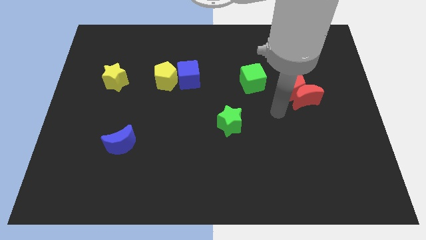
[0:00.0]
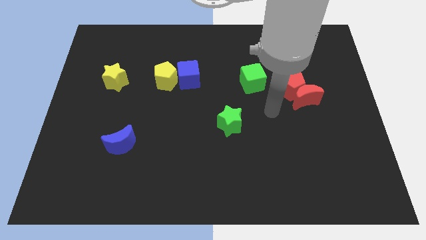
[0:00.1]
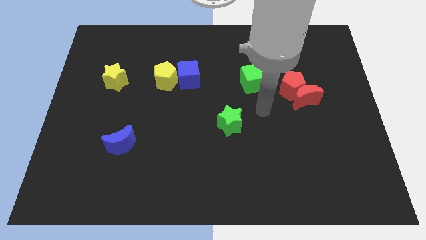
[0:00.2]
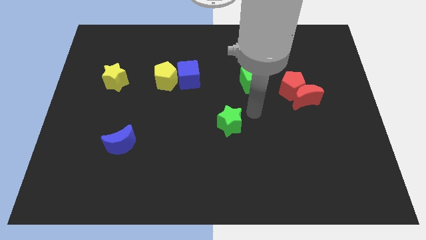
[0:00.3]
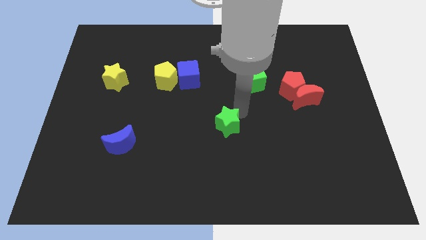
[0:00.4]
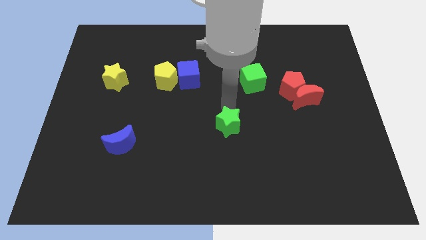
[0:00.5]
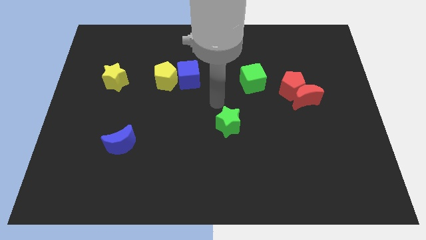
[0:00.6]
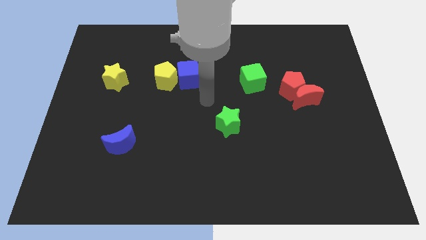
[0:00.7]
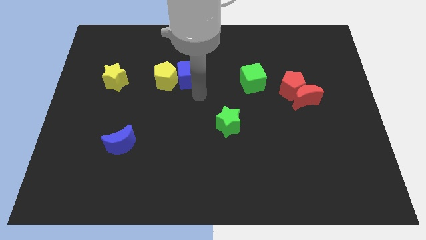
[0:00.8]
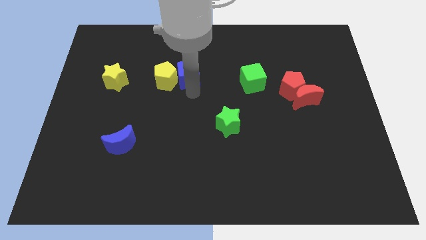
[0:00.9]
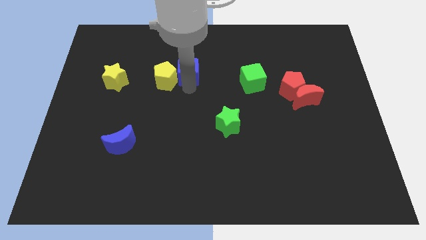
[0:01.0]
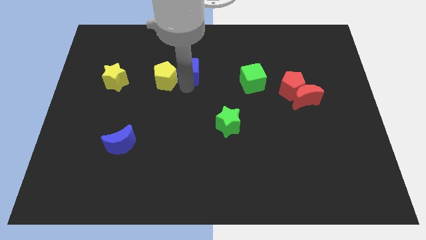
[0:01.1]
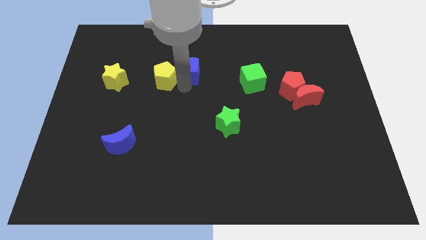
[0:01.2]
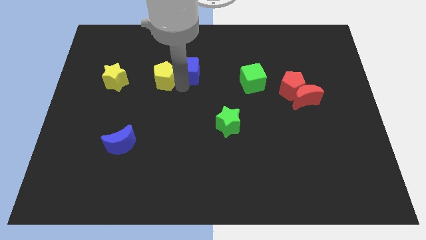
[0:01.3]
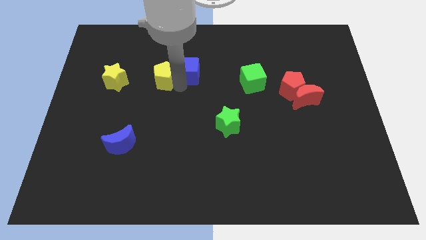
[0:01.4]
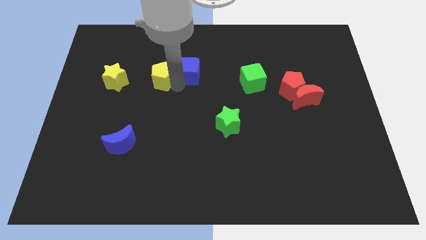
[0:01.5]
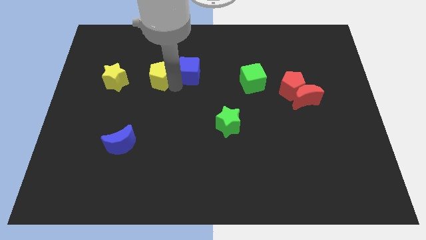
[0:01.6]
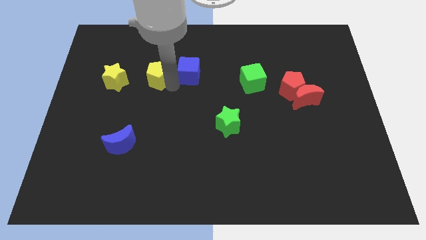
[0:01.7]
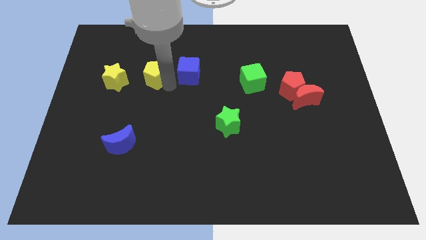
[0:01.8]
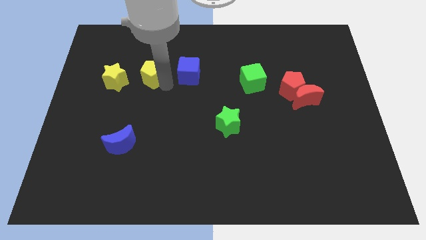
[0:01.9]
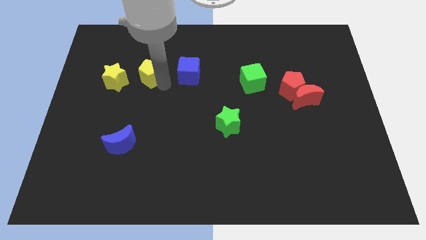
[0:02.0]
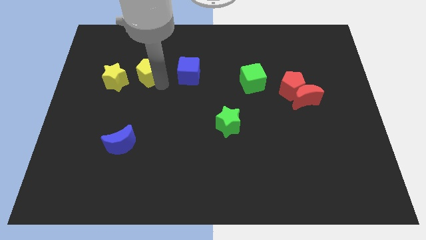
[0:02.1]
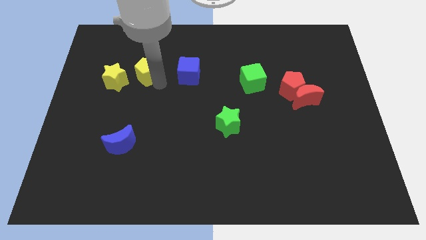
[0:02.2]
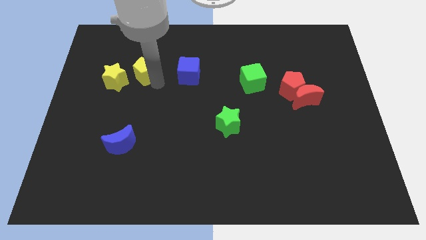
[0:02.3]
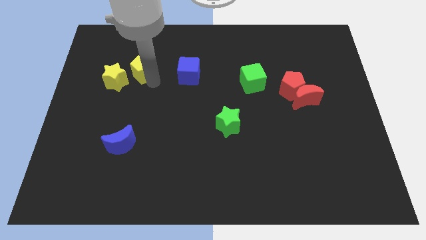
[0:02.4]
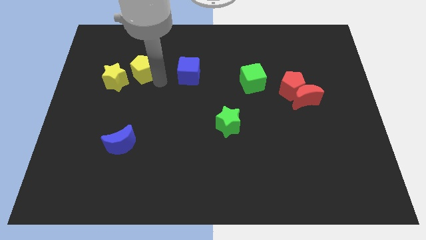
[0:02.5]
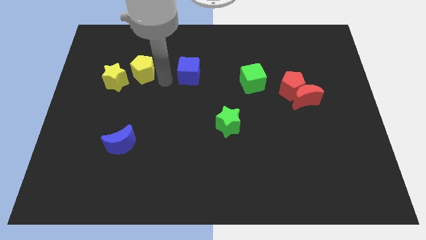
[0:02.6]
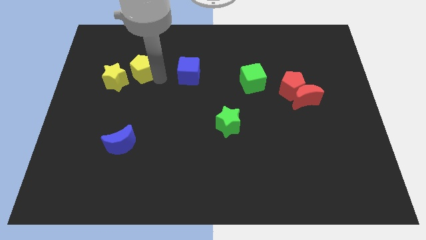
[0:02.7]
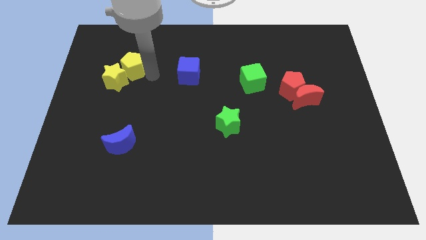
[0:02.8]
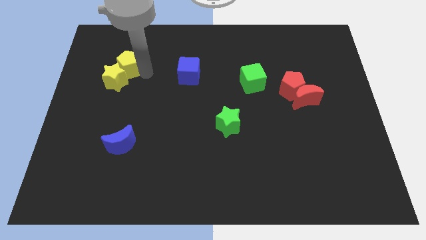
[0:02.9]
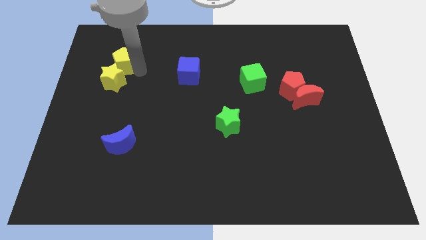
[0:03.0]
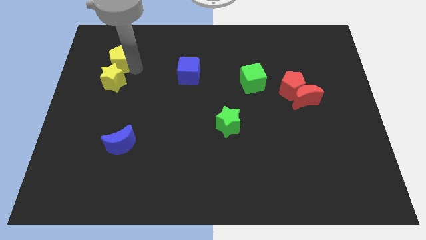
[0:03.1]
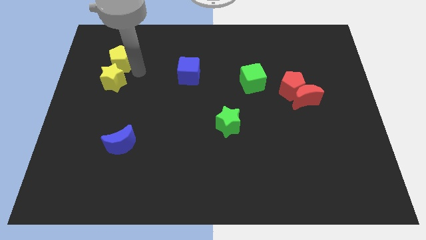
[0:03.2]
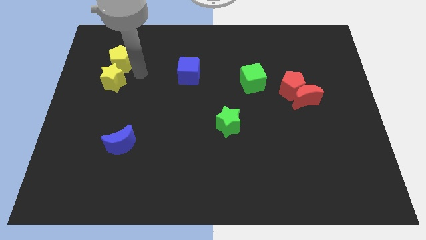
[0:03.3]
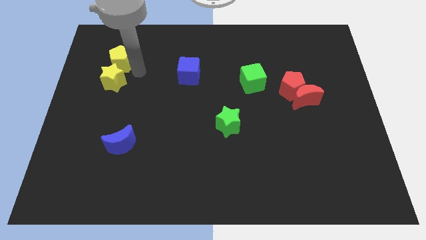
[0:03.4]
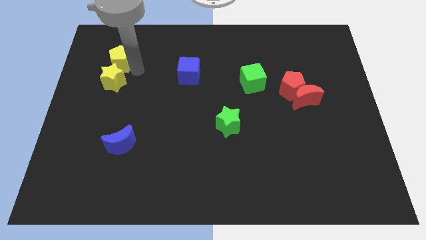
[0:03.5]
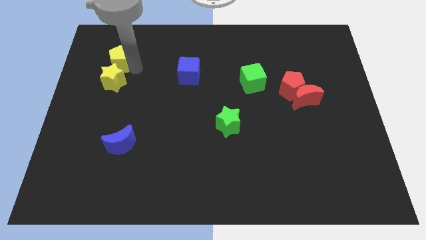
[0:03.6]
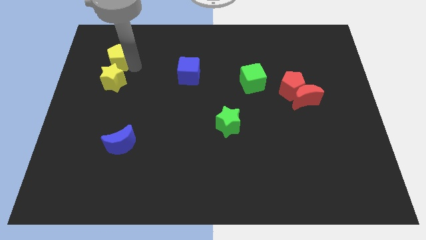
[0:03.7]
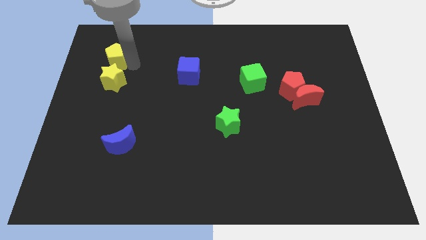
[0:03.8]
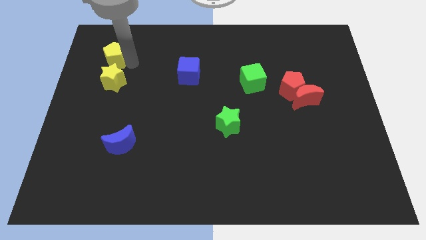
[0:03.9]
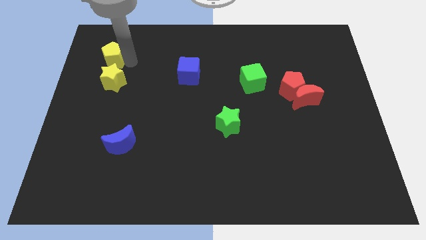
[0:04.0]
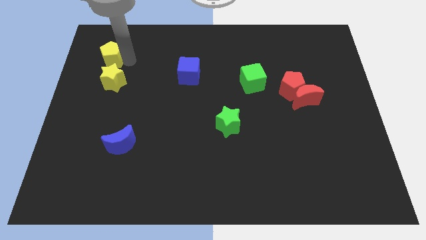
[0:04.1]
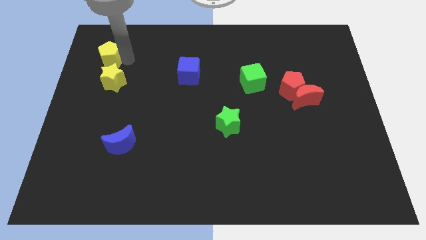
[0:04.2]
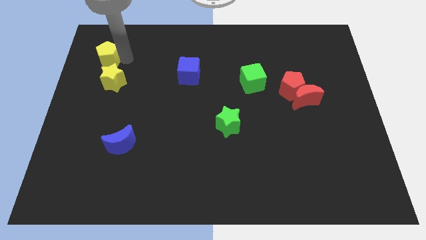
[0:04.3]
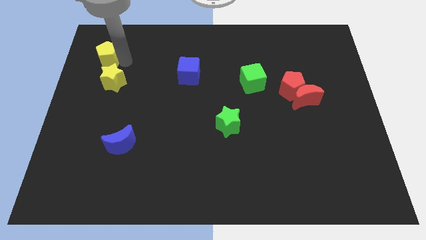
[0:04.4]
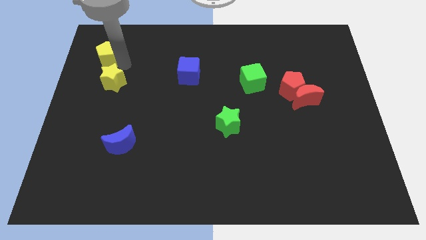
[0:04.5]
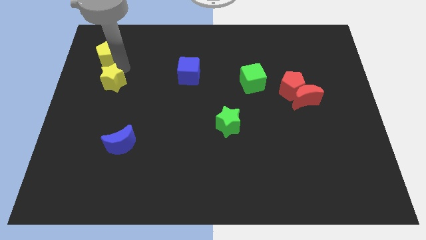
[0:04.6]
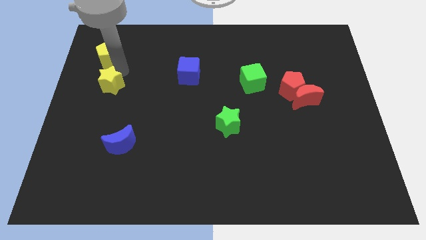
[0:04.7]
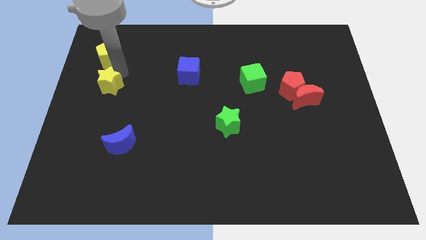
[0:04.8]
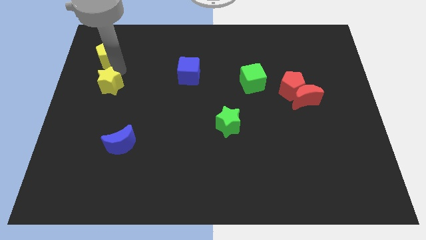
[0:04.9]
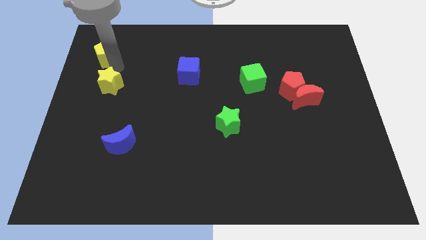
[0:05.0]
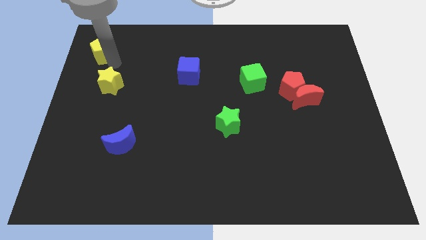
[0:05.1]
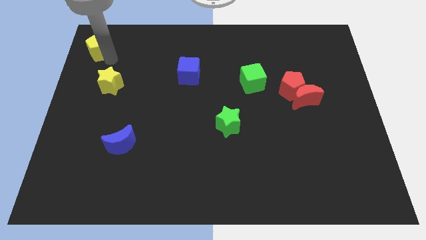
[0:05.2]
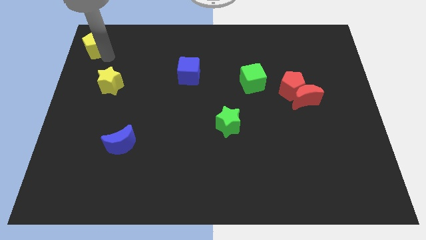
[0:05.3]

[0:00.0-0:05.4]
push the yellow pentagon to the upper left corner

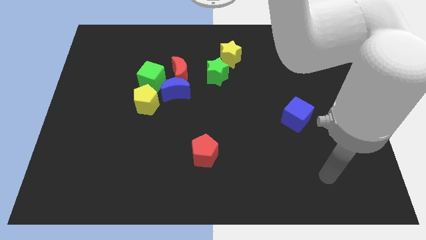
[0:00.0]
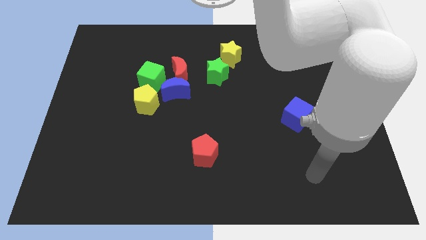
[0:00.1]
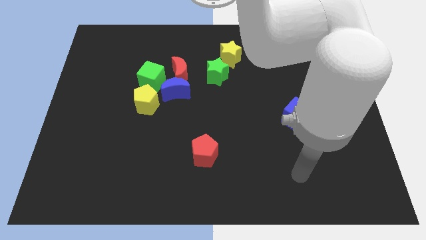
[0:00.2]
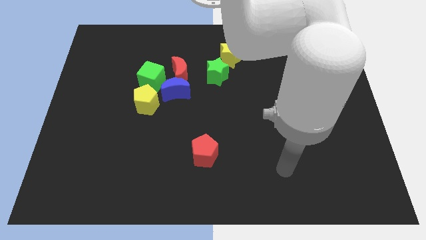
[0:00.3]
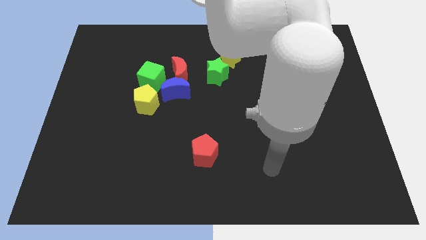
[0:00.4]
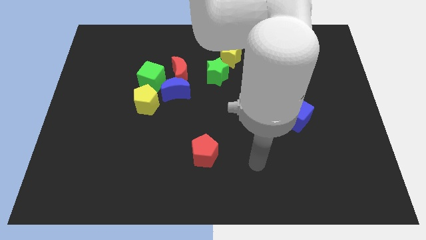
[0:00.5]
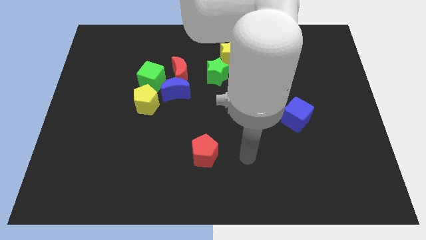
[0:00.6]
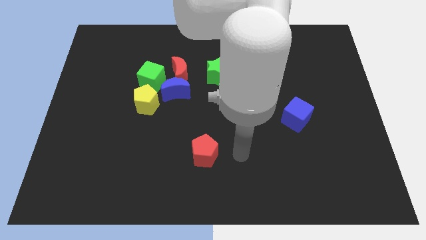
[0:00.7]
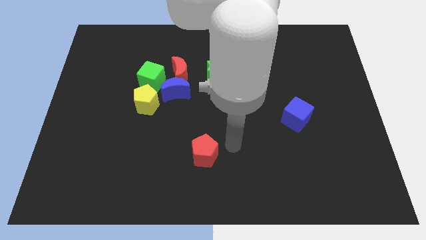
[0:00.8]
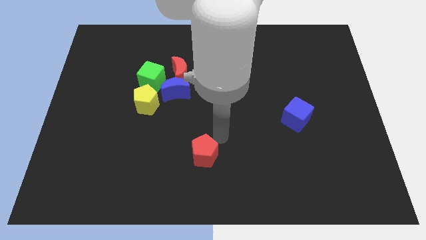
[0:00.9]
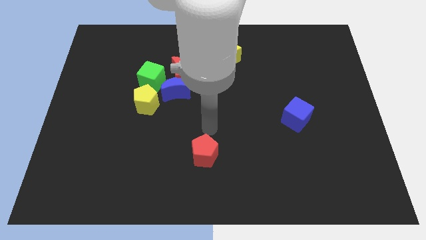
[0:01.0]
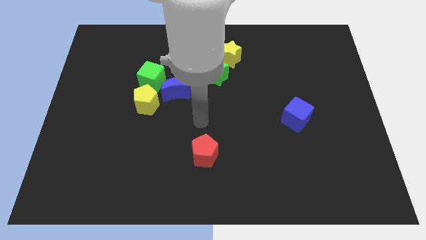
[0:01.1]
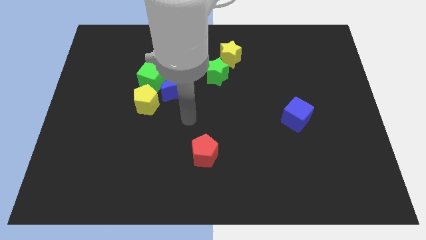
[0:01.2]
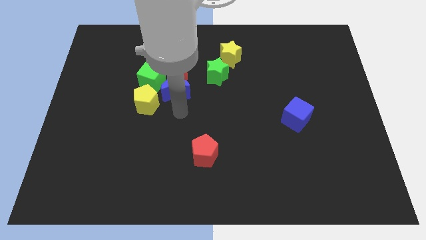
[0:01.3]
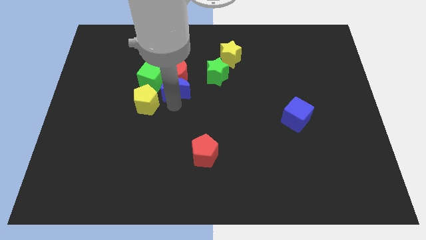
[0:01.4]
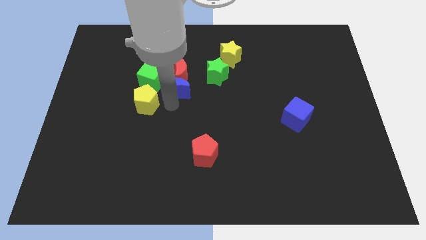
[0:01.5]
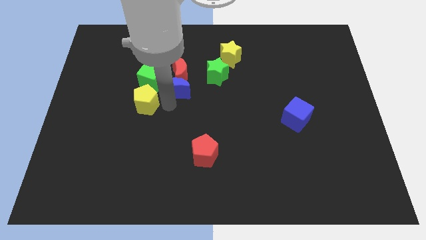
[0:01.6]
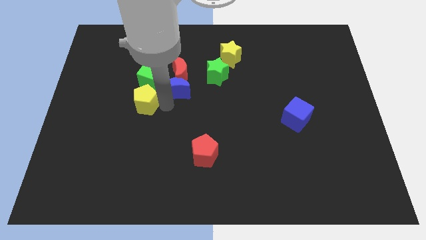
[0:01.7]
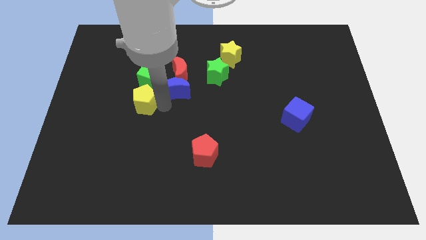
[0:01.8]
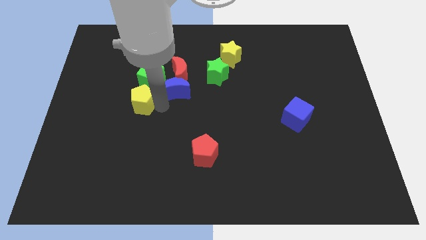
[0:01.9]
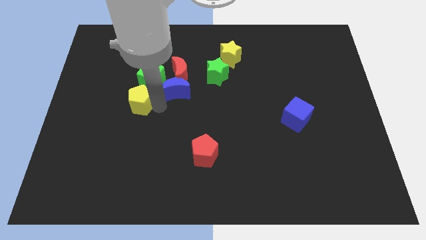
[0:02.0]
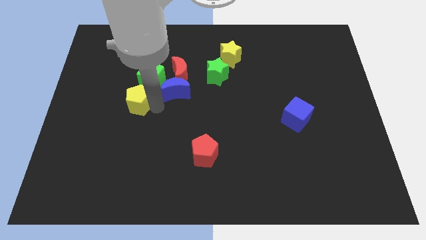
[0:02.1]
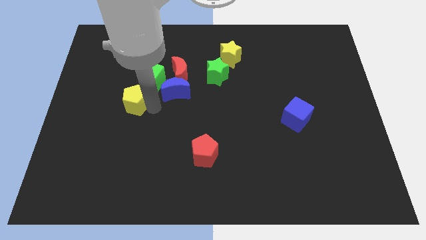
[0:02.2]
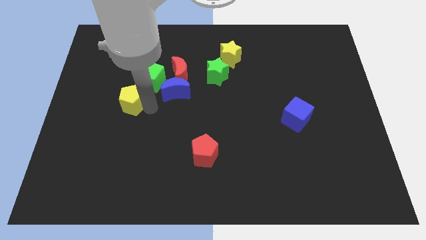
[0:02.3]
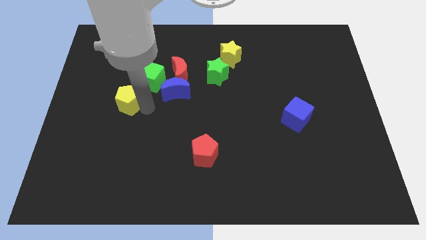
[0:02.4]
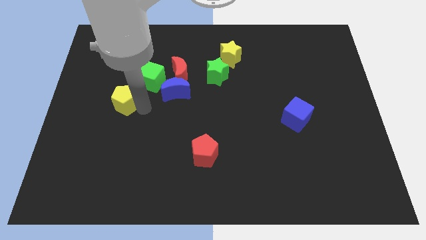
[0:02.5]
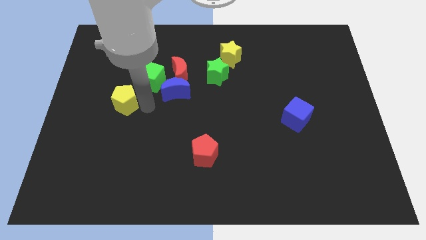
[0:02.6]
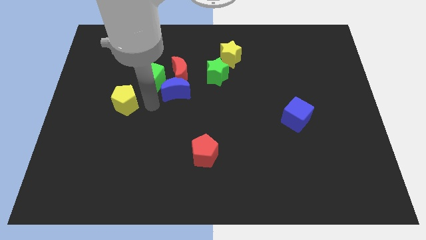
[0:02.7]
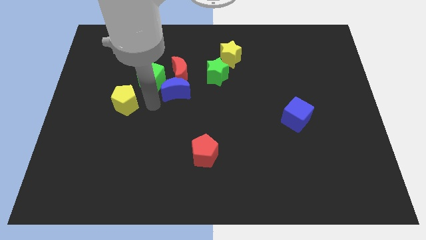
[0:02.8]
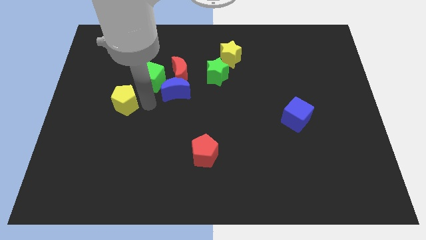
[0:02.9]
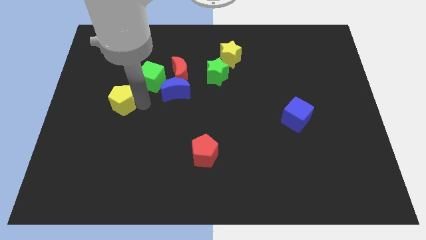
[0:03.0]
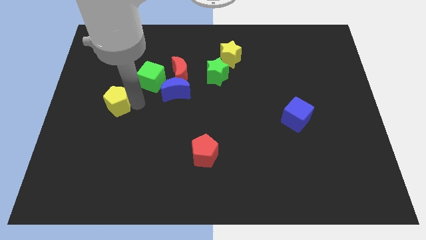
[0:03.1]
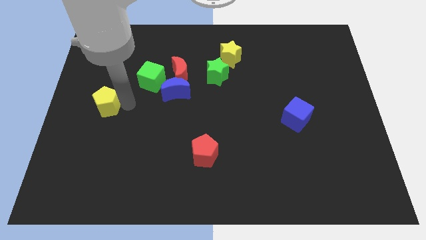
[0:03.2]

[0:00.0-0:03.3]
put the yellow pentagon to the left side
